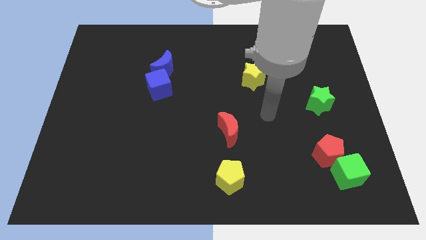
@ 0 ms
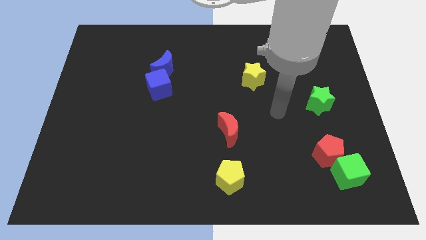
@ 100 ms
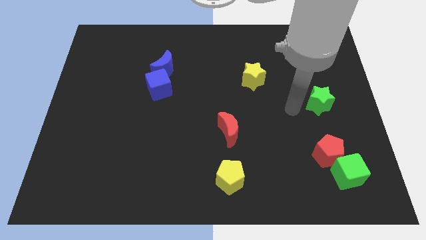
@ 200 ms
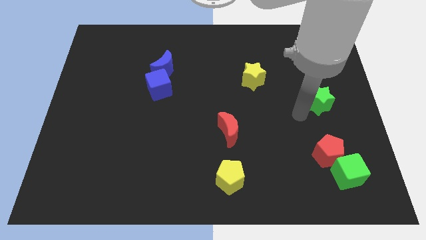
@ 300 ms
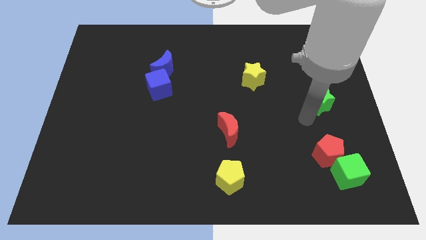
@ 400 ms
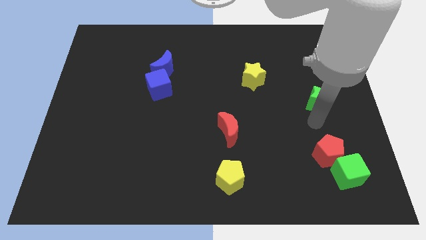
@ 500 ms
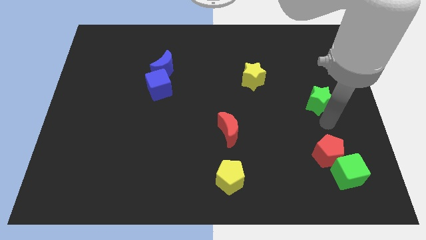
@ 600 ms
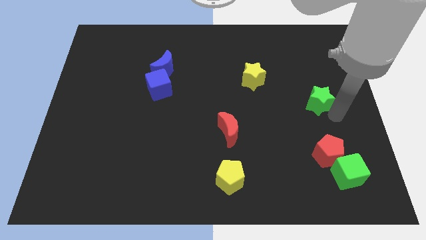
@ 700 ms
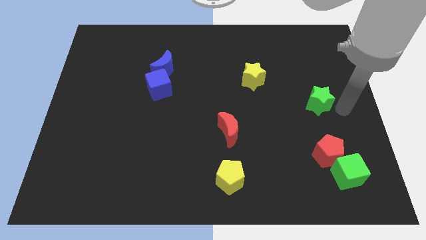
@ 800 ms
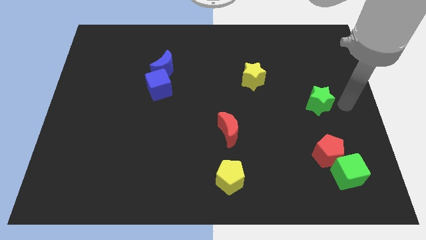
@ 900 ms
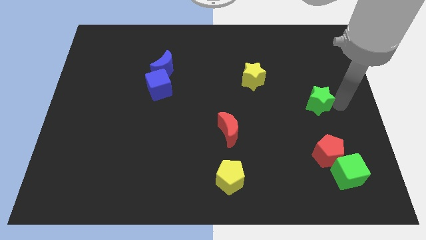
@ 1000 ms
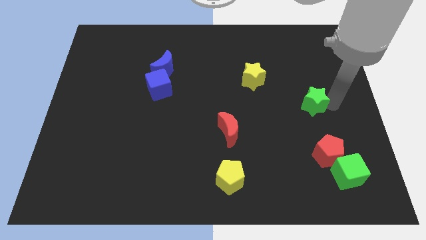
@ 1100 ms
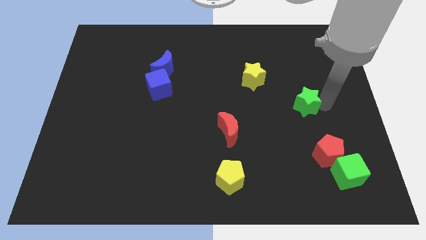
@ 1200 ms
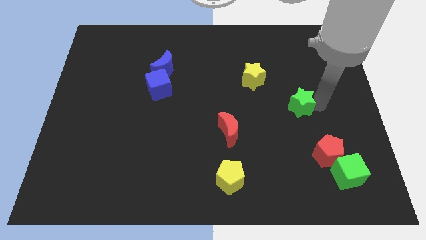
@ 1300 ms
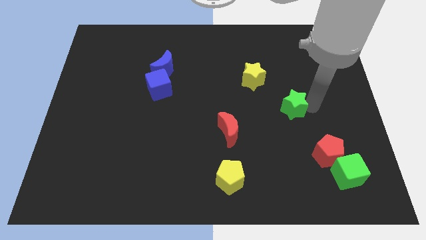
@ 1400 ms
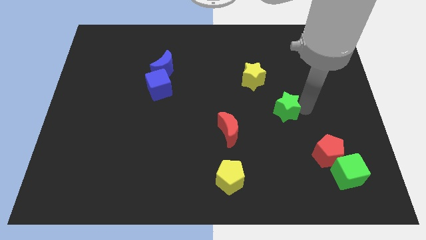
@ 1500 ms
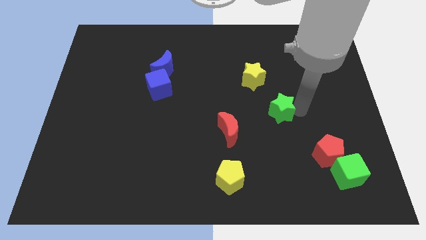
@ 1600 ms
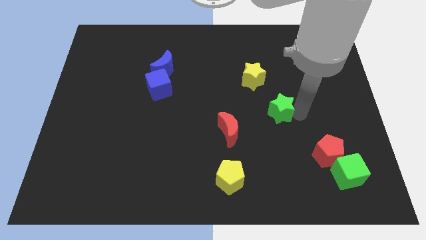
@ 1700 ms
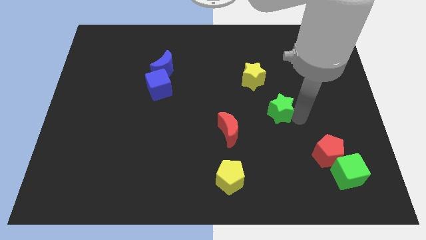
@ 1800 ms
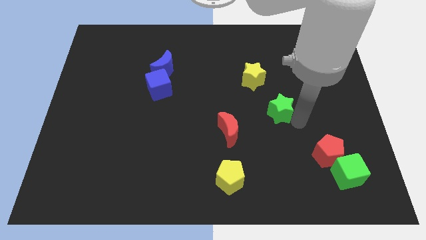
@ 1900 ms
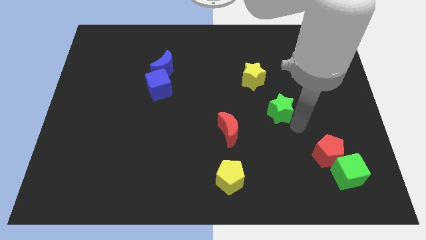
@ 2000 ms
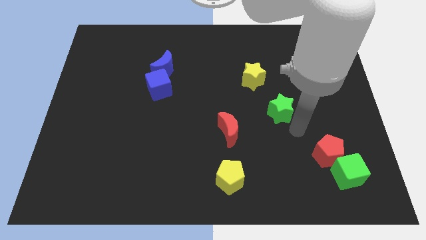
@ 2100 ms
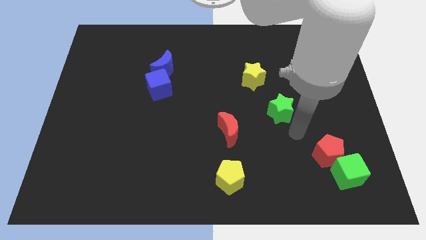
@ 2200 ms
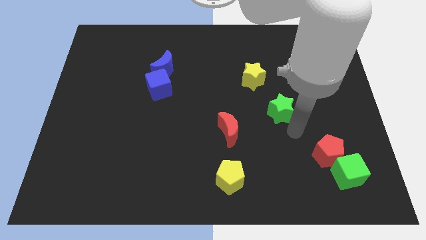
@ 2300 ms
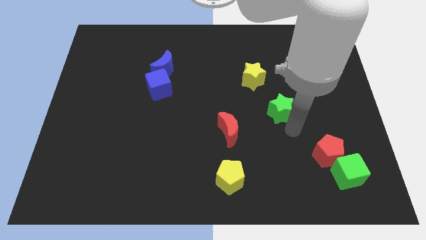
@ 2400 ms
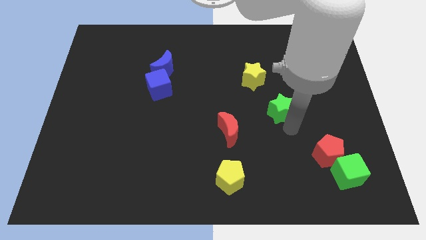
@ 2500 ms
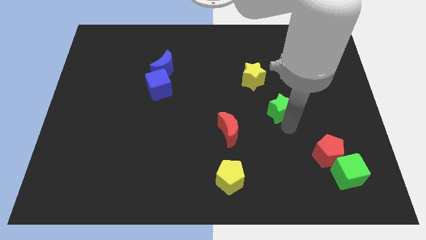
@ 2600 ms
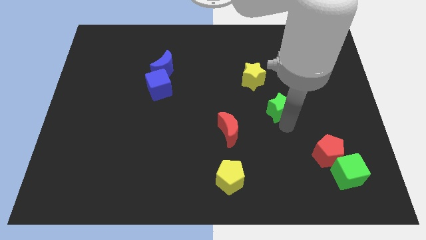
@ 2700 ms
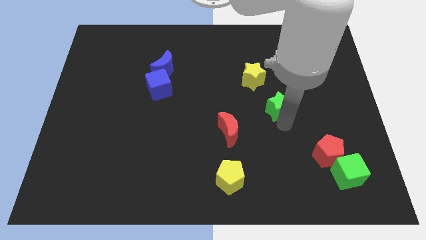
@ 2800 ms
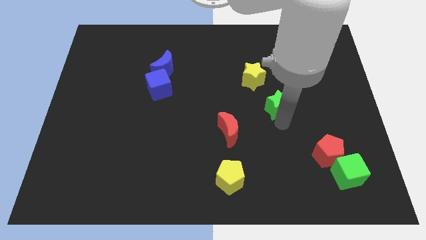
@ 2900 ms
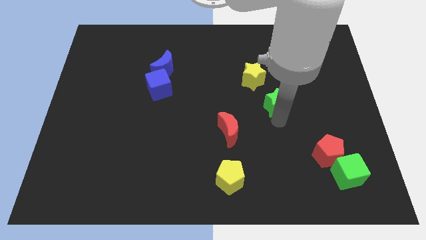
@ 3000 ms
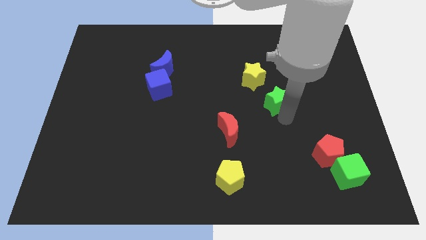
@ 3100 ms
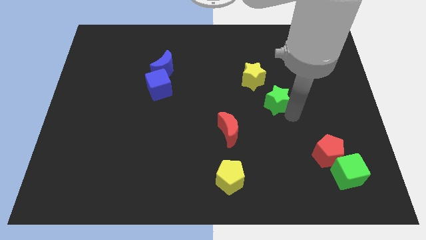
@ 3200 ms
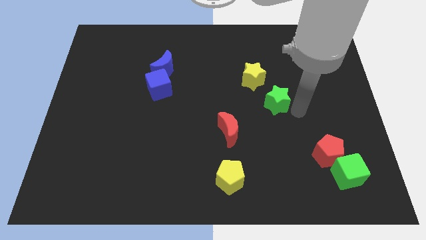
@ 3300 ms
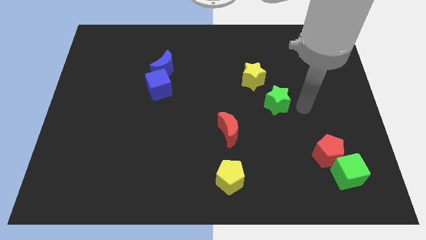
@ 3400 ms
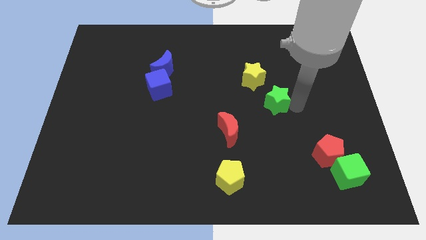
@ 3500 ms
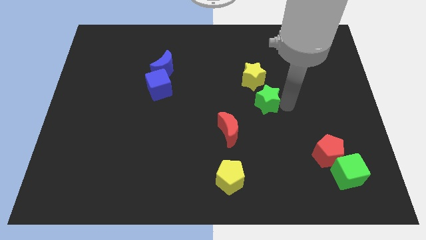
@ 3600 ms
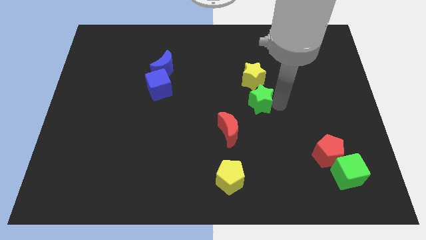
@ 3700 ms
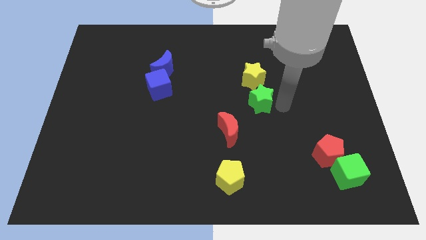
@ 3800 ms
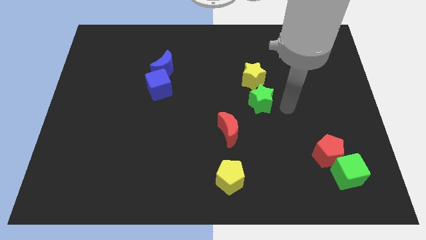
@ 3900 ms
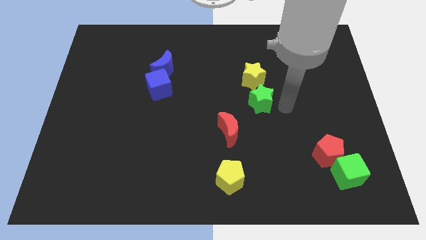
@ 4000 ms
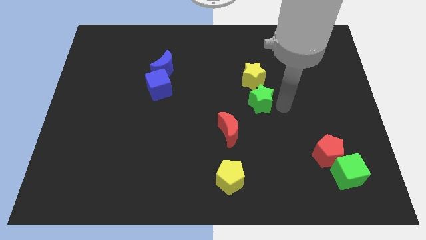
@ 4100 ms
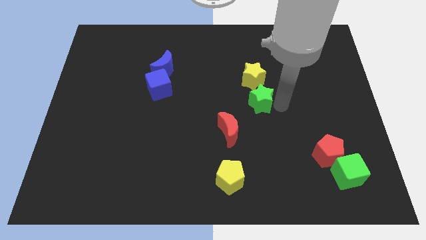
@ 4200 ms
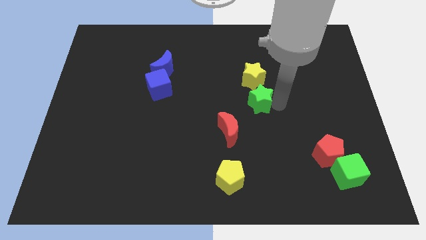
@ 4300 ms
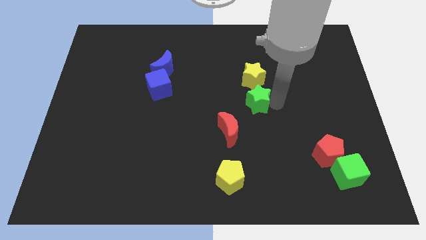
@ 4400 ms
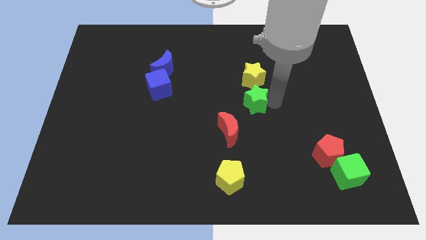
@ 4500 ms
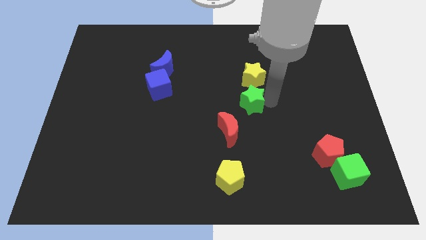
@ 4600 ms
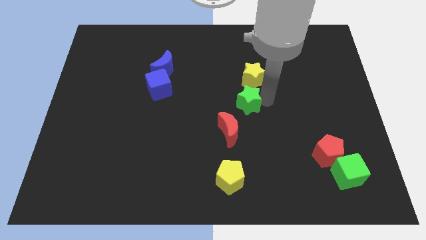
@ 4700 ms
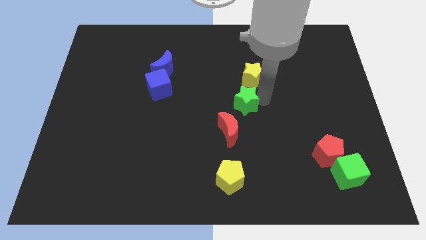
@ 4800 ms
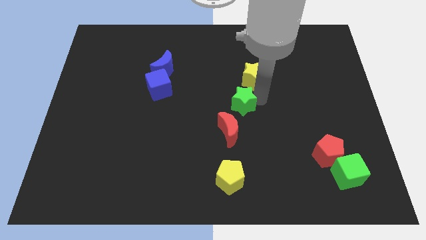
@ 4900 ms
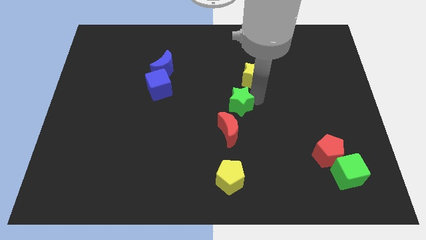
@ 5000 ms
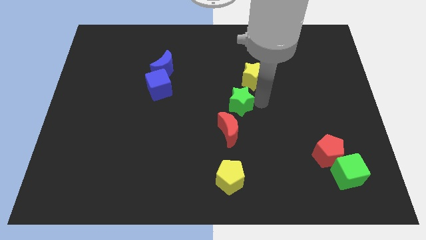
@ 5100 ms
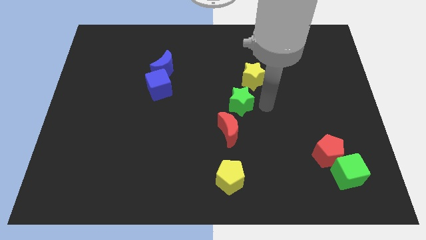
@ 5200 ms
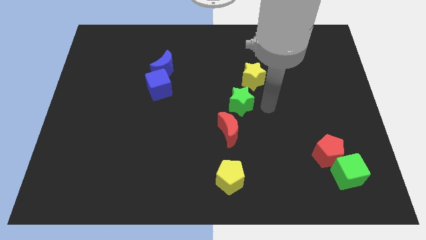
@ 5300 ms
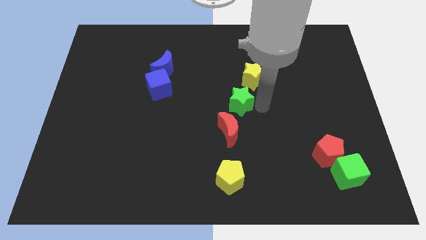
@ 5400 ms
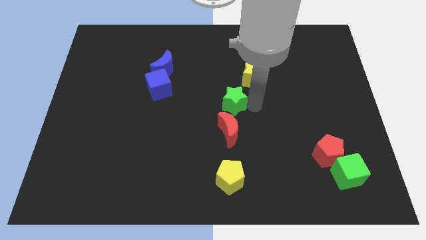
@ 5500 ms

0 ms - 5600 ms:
move the green star to the left

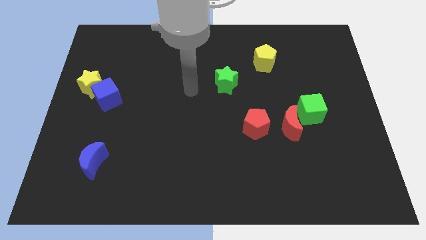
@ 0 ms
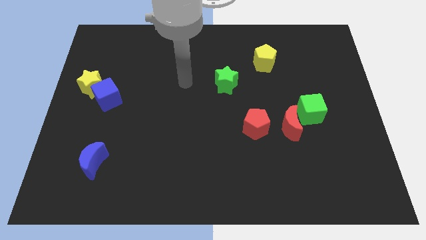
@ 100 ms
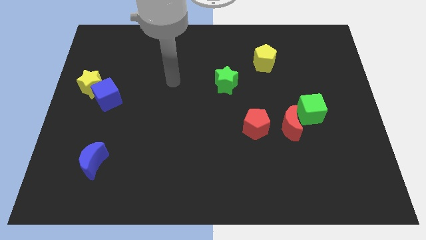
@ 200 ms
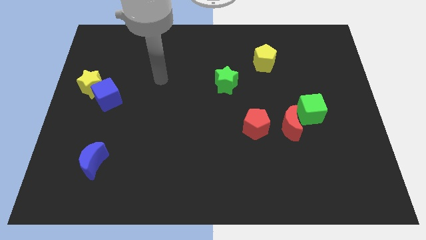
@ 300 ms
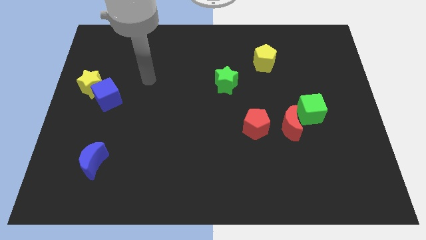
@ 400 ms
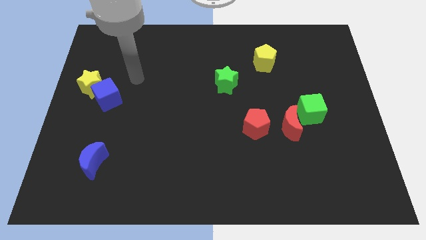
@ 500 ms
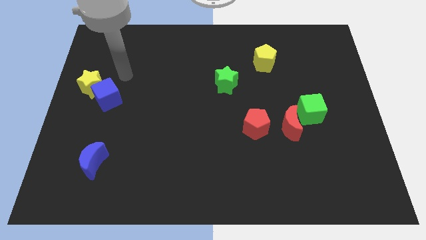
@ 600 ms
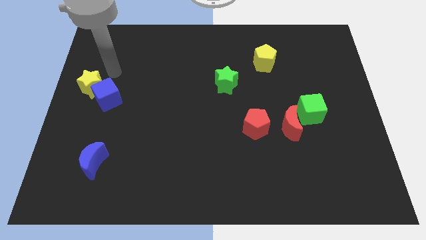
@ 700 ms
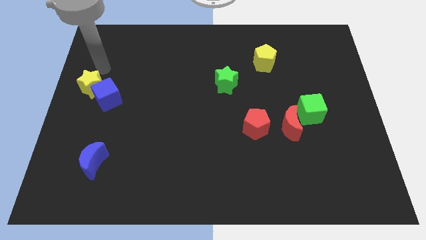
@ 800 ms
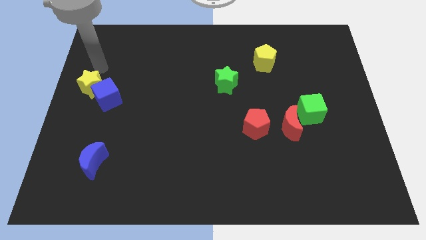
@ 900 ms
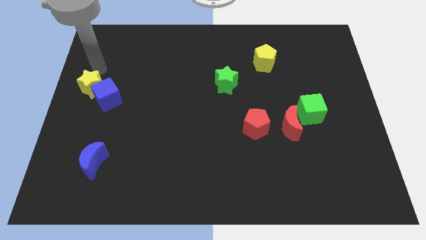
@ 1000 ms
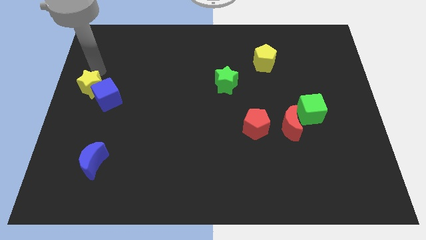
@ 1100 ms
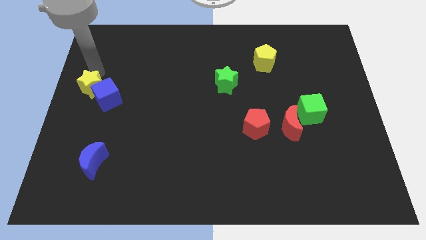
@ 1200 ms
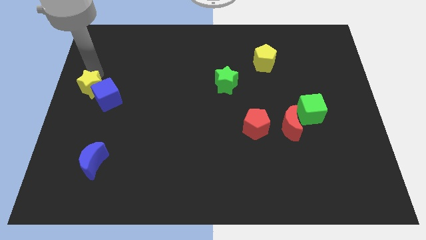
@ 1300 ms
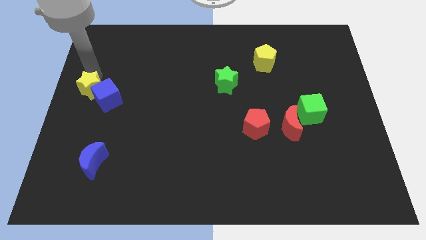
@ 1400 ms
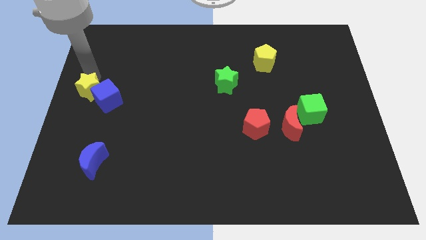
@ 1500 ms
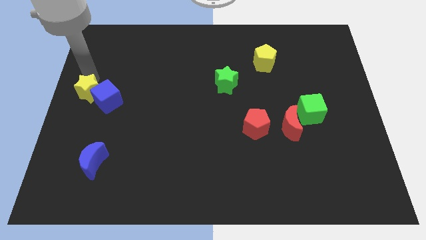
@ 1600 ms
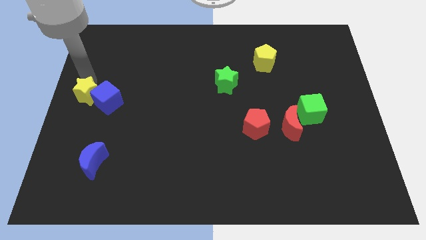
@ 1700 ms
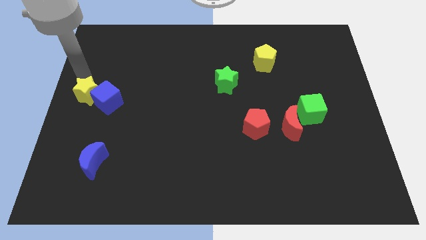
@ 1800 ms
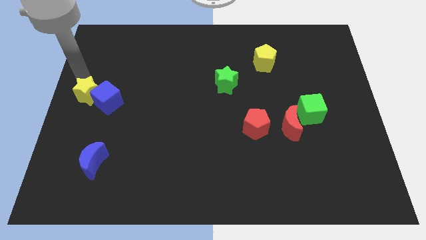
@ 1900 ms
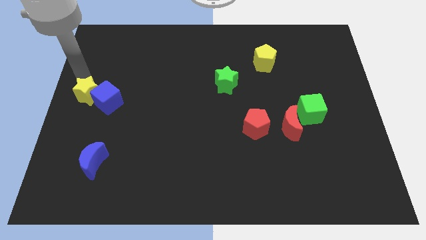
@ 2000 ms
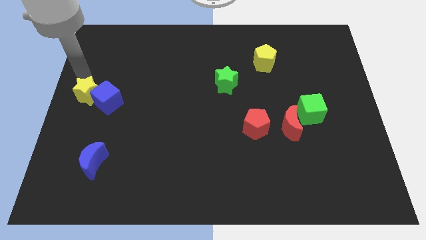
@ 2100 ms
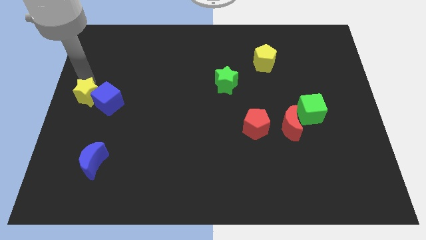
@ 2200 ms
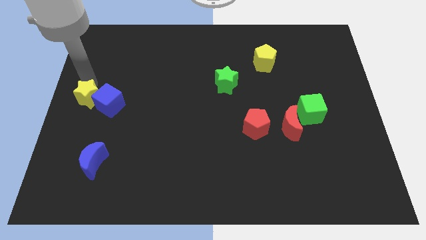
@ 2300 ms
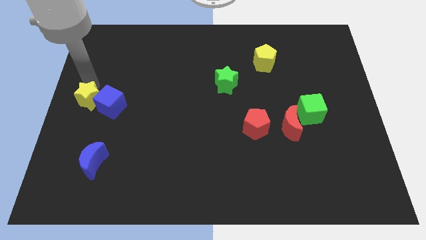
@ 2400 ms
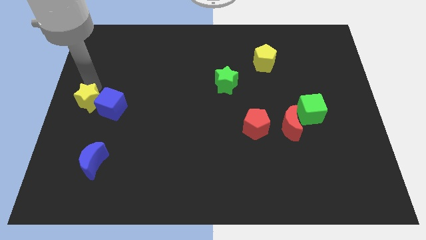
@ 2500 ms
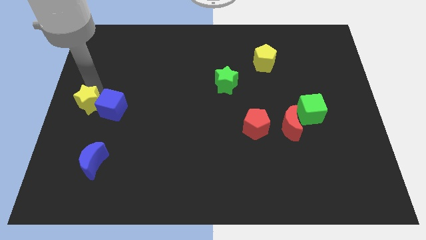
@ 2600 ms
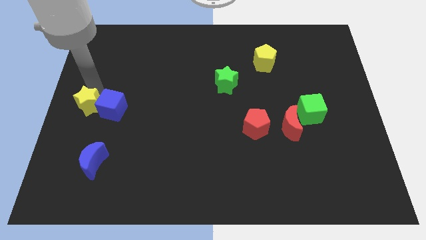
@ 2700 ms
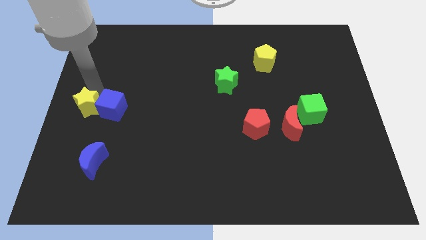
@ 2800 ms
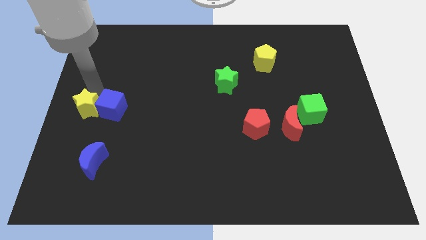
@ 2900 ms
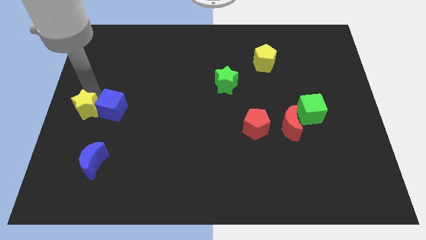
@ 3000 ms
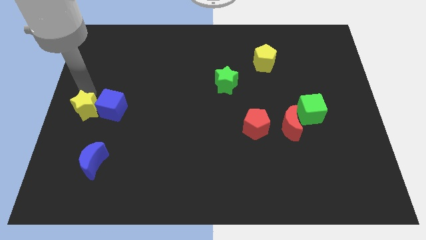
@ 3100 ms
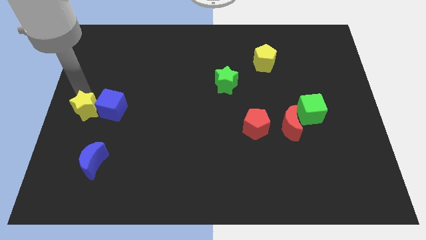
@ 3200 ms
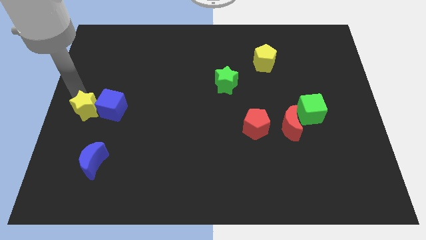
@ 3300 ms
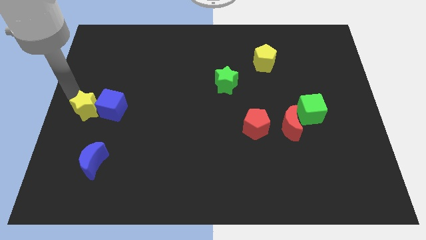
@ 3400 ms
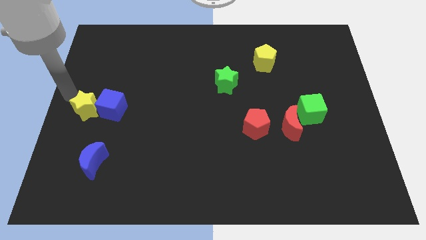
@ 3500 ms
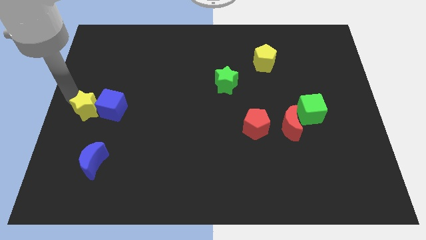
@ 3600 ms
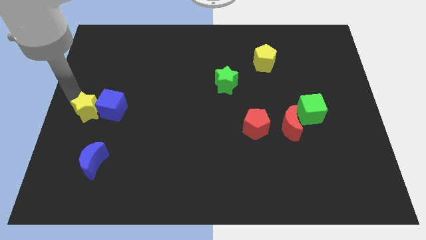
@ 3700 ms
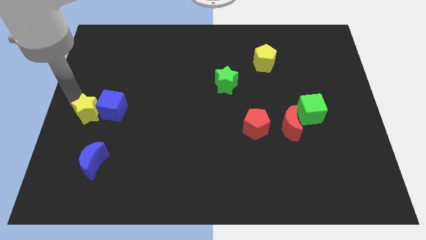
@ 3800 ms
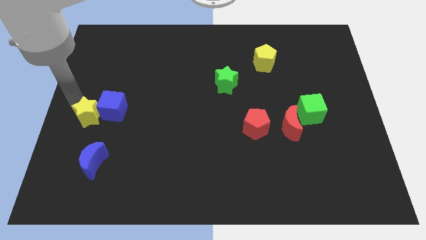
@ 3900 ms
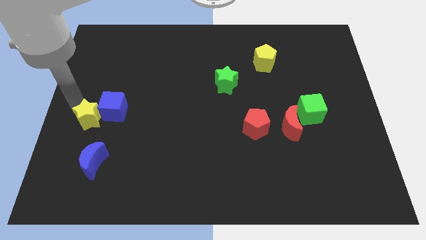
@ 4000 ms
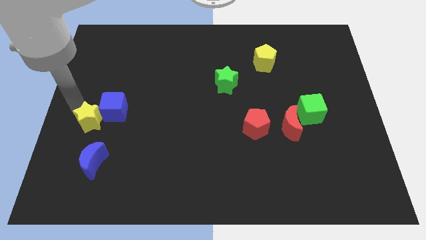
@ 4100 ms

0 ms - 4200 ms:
push the yellow star downwards and then to the right a little bit
